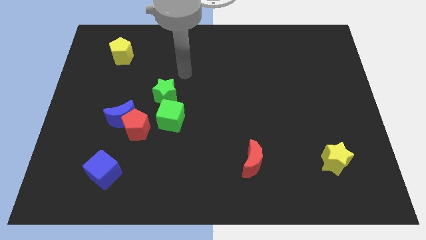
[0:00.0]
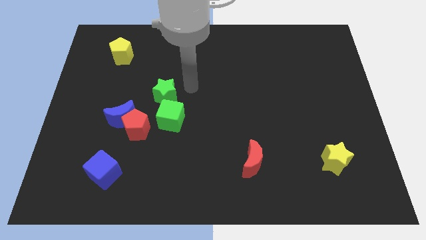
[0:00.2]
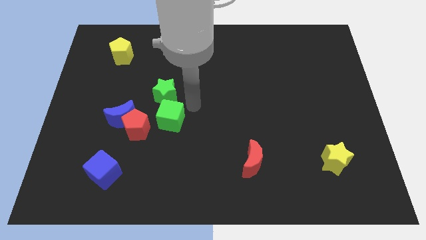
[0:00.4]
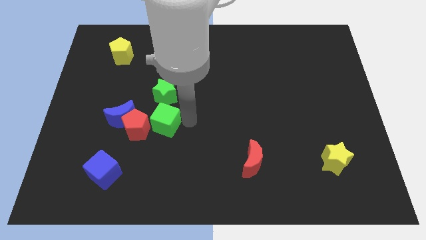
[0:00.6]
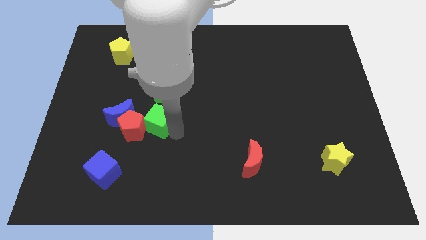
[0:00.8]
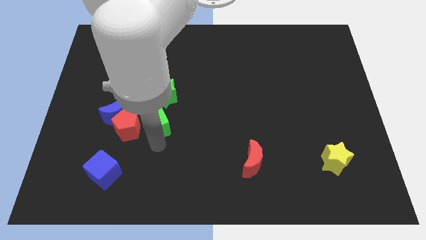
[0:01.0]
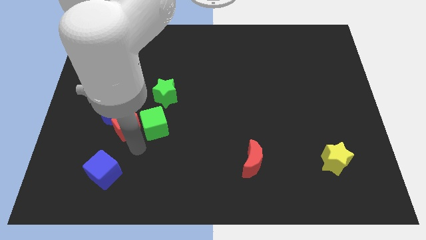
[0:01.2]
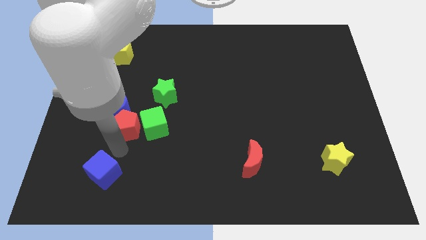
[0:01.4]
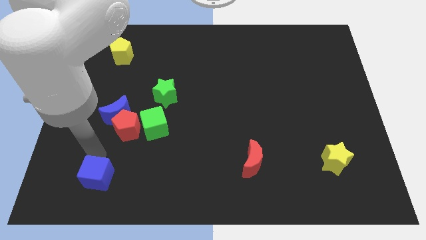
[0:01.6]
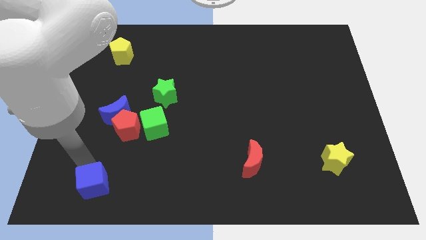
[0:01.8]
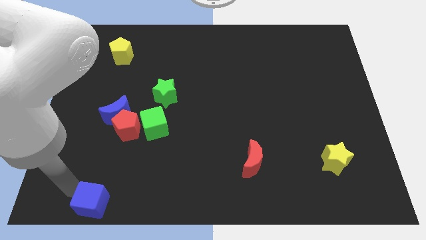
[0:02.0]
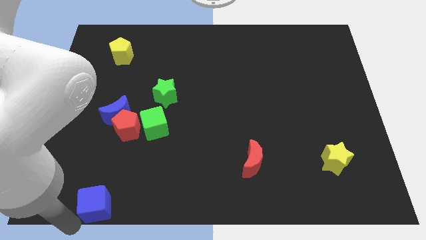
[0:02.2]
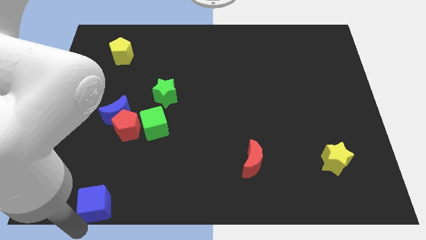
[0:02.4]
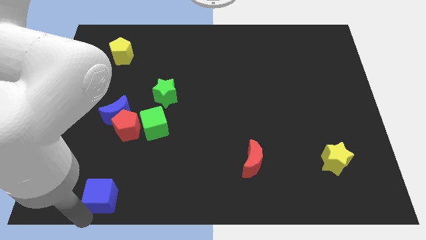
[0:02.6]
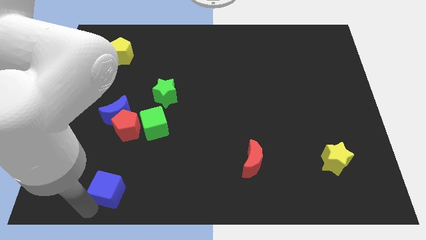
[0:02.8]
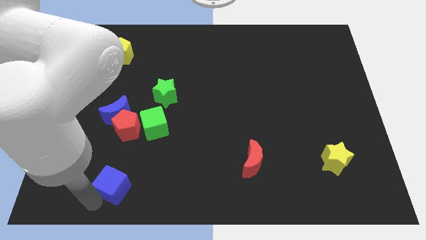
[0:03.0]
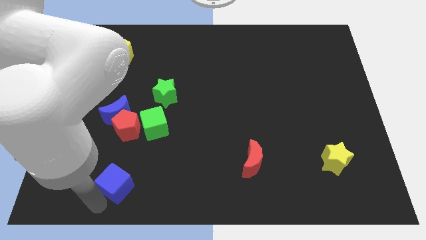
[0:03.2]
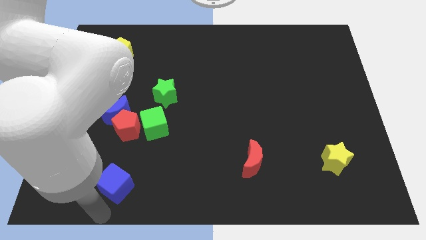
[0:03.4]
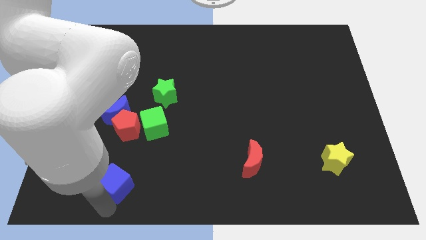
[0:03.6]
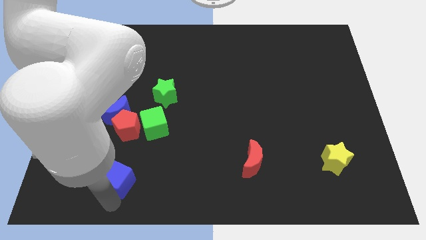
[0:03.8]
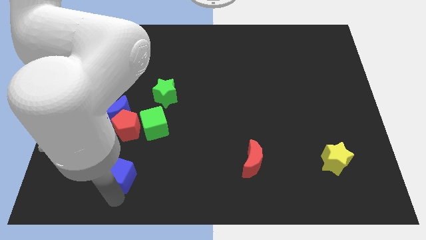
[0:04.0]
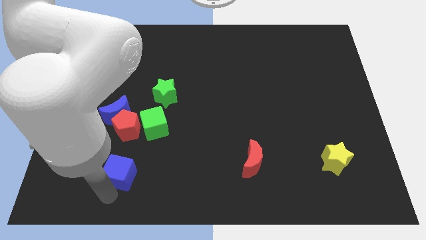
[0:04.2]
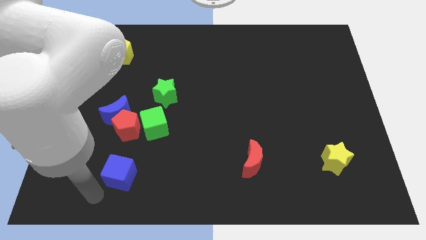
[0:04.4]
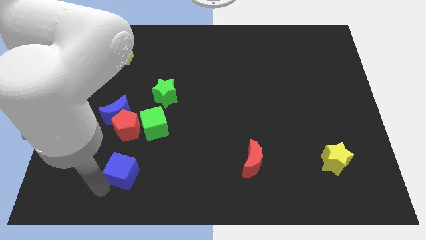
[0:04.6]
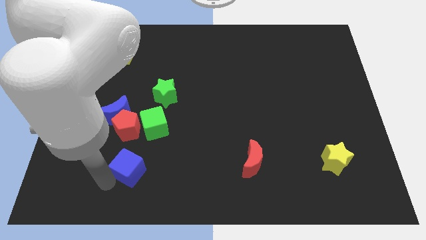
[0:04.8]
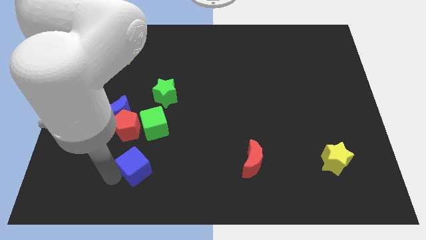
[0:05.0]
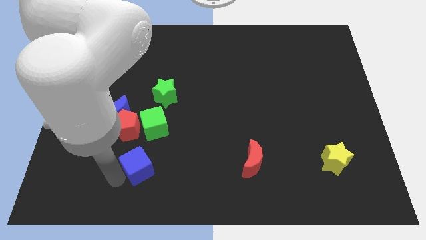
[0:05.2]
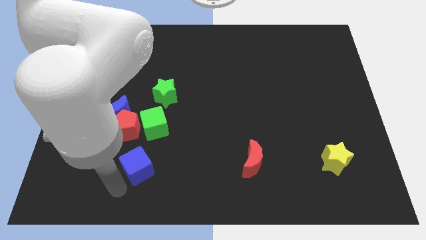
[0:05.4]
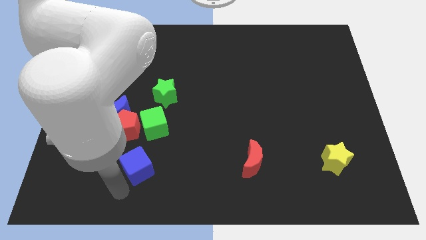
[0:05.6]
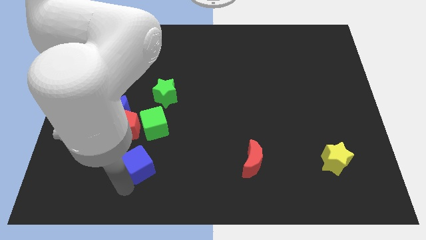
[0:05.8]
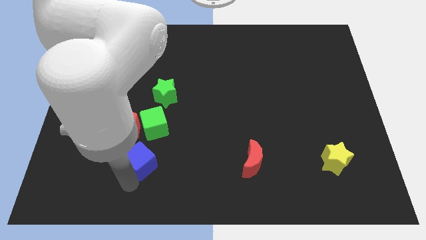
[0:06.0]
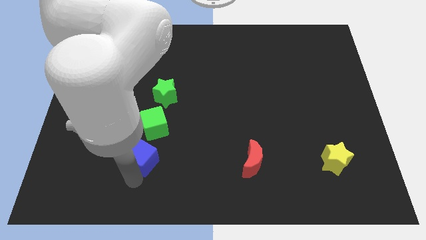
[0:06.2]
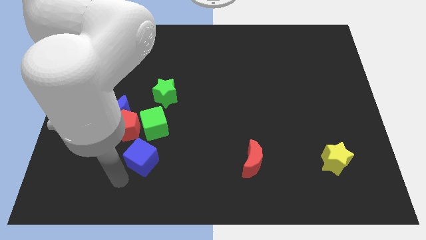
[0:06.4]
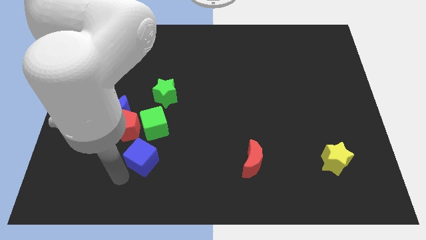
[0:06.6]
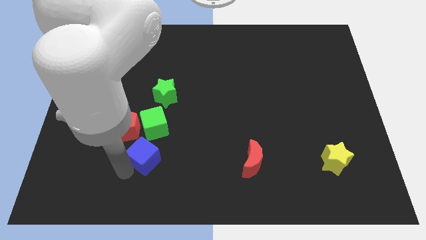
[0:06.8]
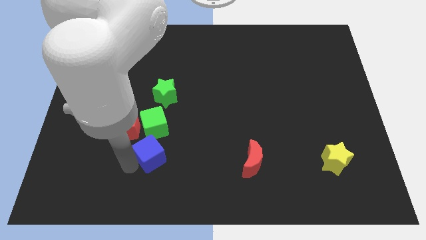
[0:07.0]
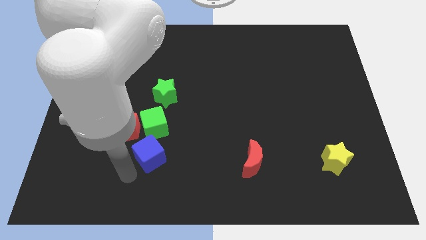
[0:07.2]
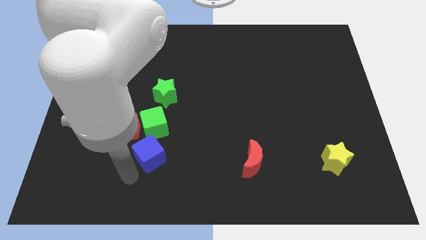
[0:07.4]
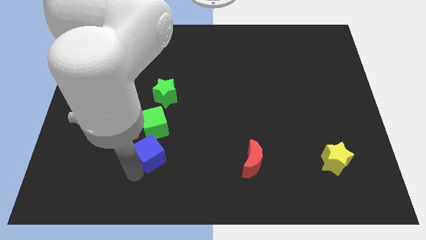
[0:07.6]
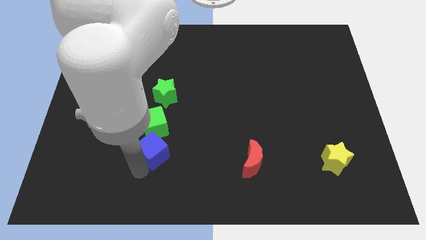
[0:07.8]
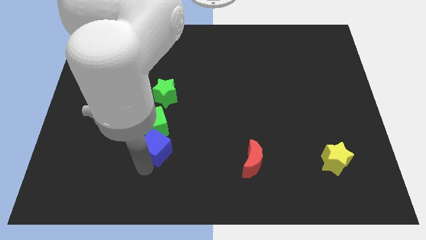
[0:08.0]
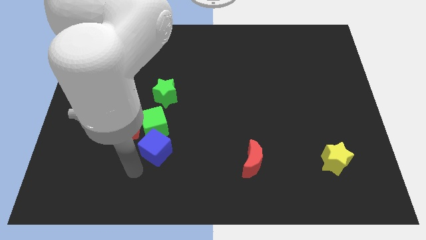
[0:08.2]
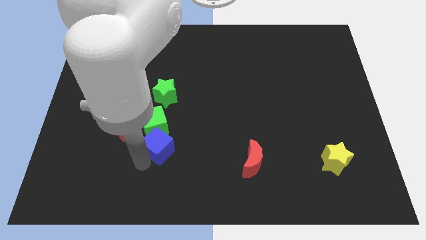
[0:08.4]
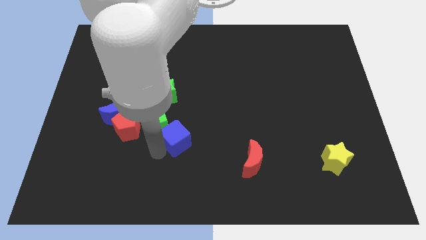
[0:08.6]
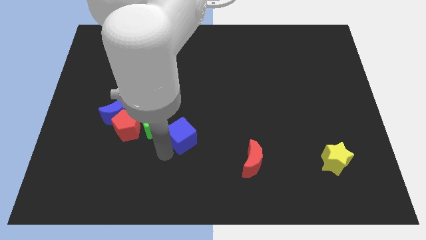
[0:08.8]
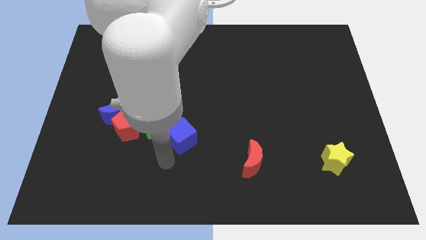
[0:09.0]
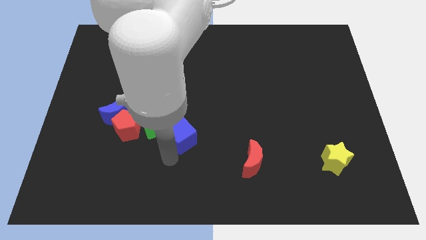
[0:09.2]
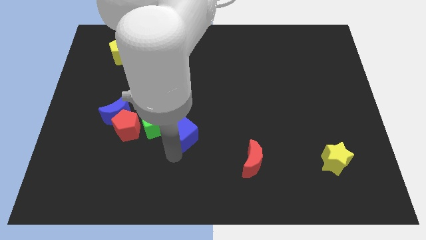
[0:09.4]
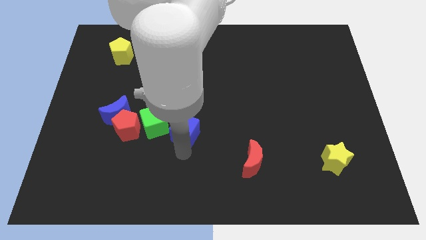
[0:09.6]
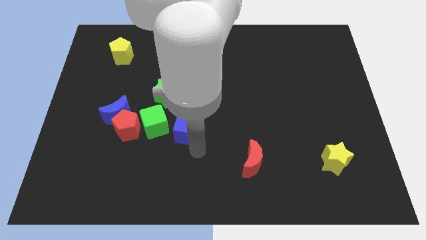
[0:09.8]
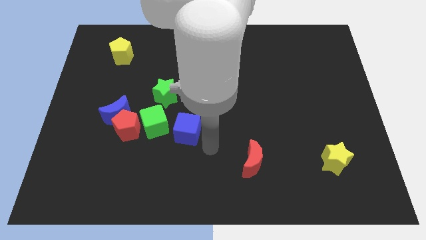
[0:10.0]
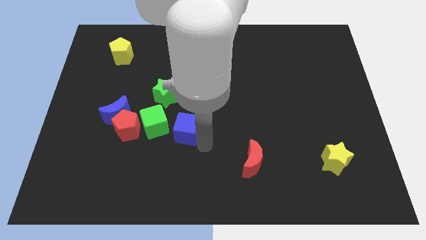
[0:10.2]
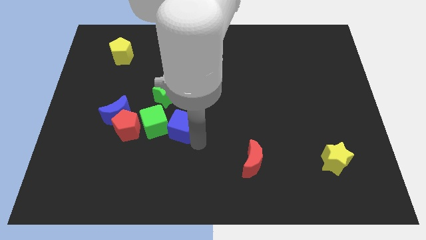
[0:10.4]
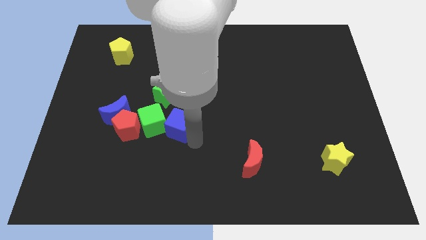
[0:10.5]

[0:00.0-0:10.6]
slide the blue cube to the right of the blue moon

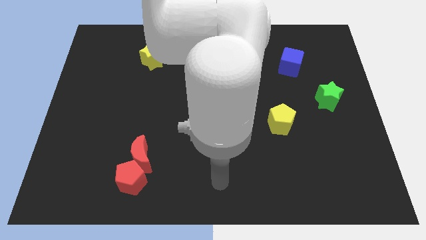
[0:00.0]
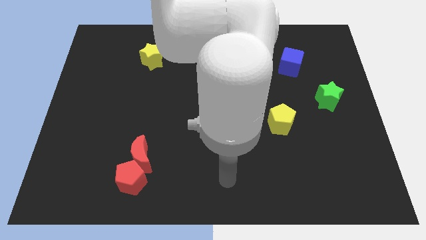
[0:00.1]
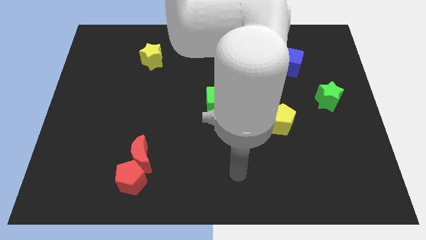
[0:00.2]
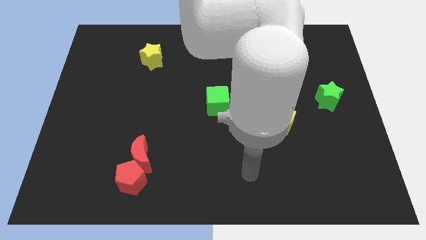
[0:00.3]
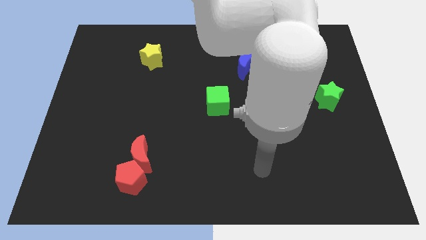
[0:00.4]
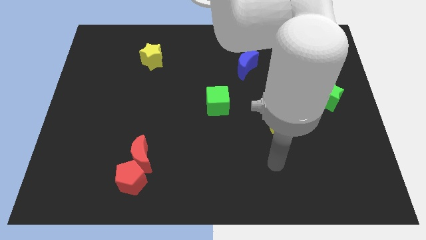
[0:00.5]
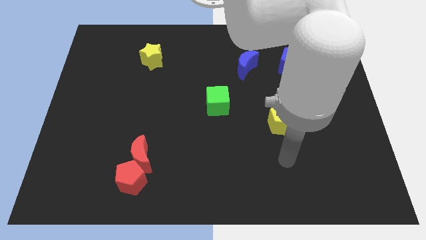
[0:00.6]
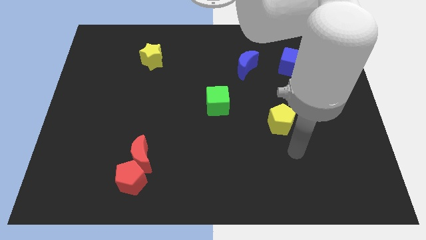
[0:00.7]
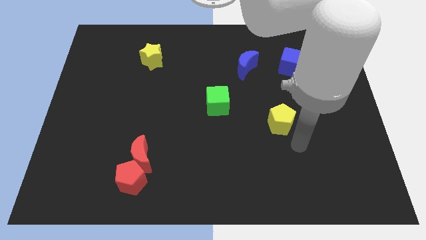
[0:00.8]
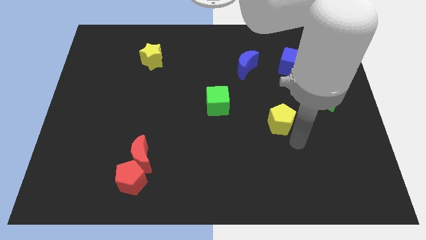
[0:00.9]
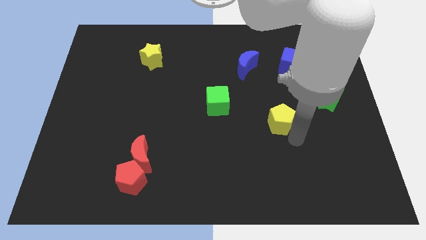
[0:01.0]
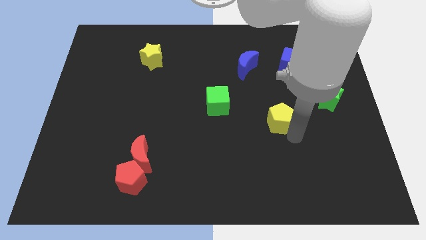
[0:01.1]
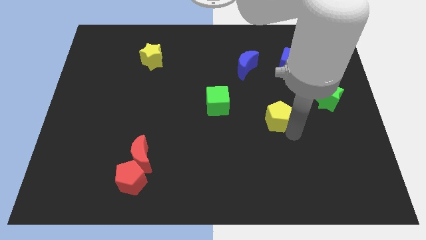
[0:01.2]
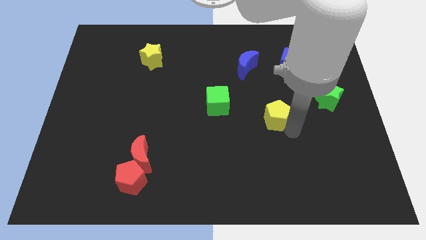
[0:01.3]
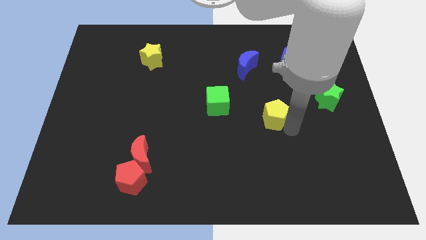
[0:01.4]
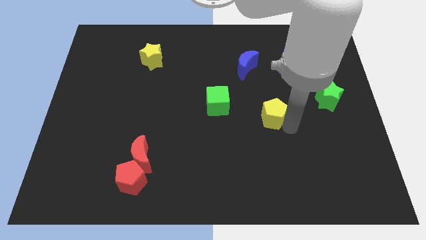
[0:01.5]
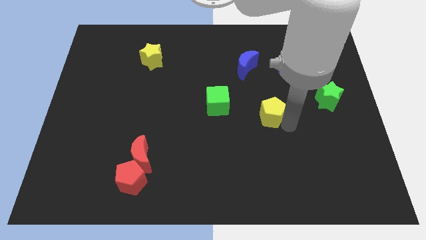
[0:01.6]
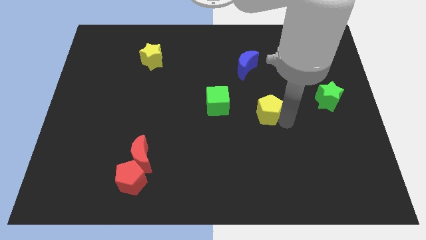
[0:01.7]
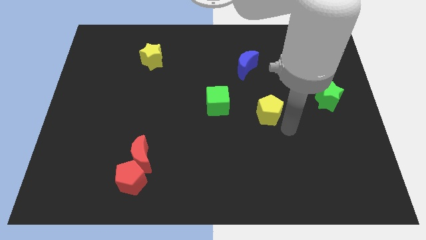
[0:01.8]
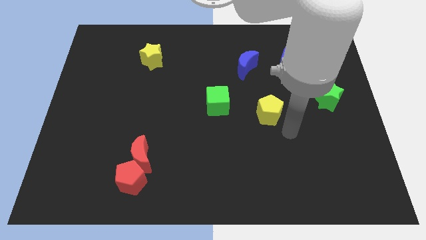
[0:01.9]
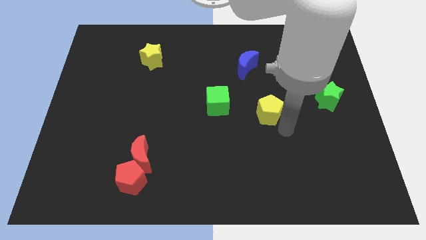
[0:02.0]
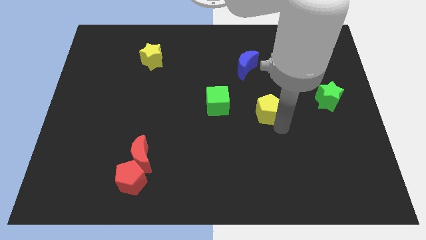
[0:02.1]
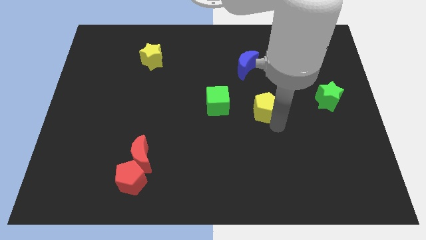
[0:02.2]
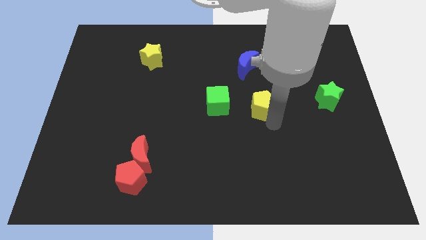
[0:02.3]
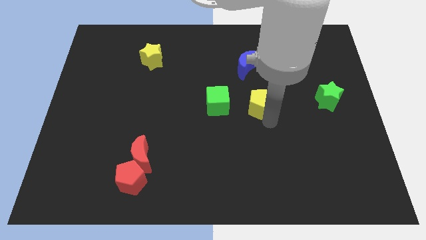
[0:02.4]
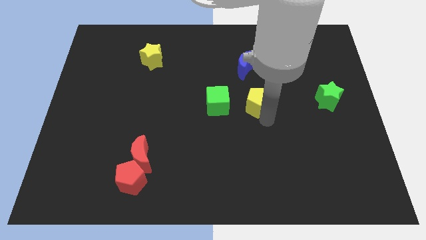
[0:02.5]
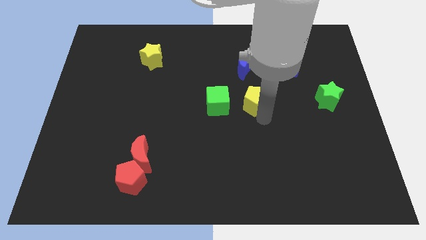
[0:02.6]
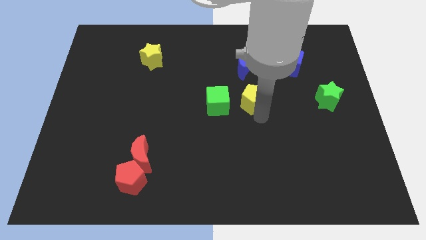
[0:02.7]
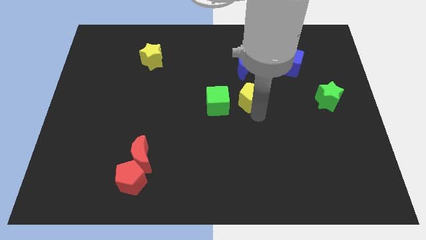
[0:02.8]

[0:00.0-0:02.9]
move the yellow pentagon to the top right side of the green cube
